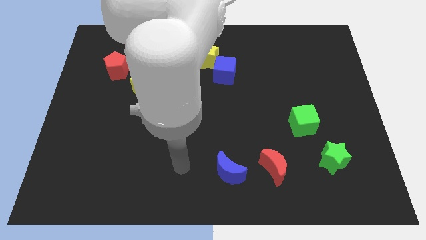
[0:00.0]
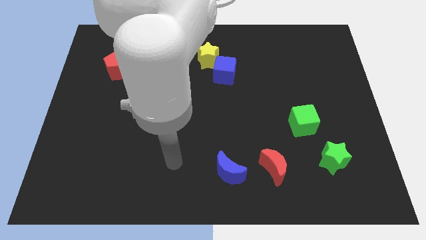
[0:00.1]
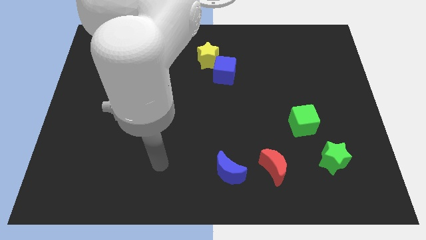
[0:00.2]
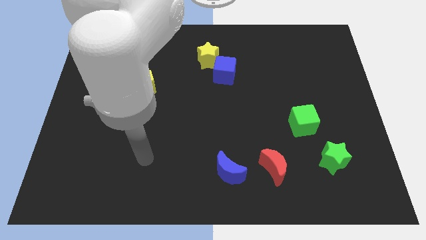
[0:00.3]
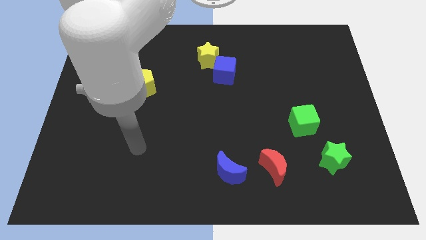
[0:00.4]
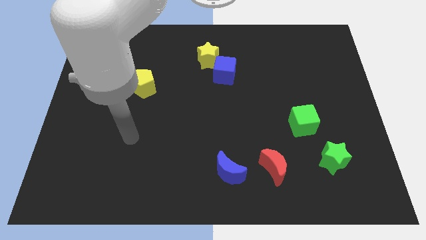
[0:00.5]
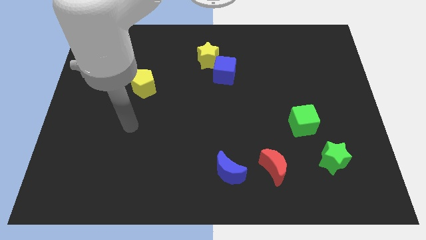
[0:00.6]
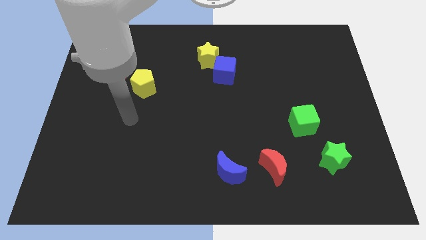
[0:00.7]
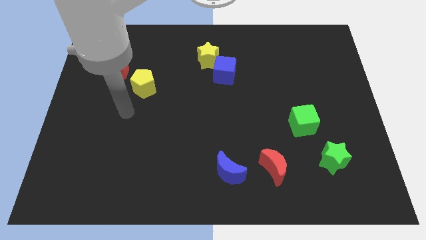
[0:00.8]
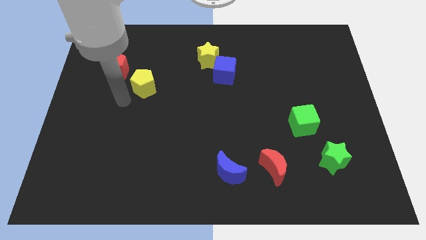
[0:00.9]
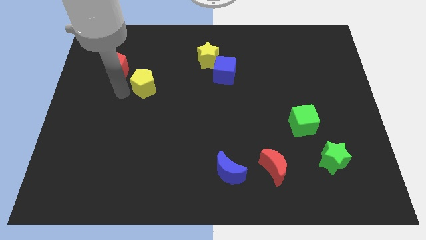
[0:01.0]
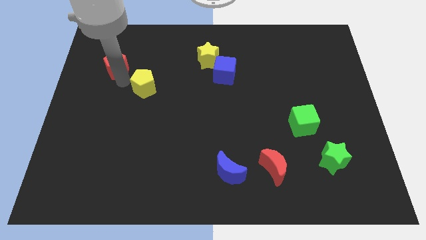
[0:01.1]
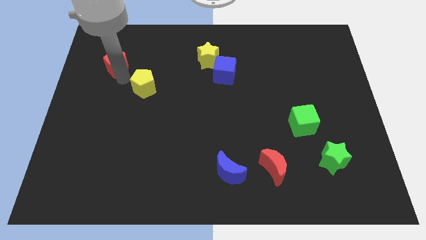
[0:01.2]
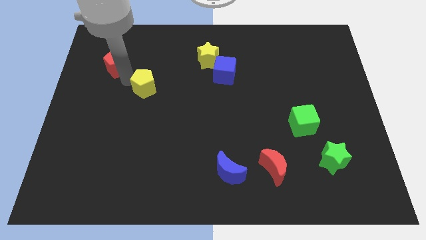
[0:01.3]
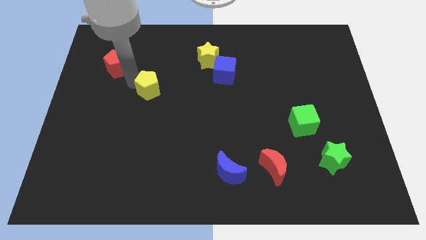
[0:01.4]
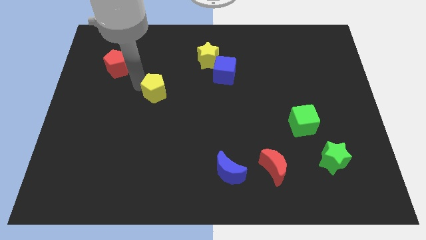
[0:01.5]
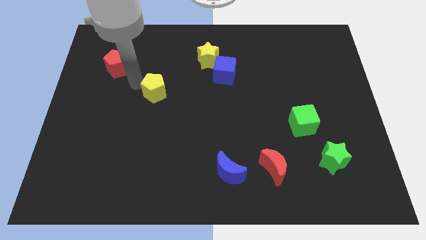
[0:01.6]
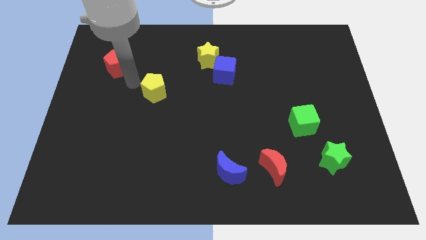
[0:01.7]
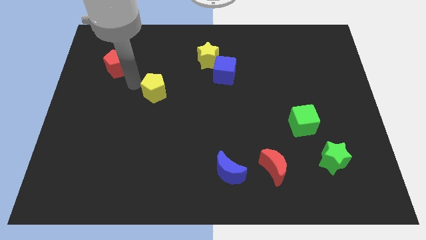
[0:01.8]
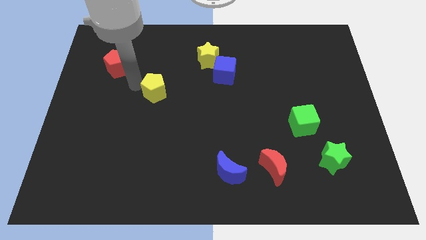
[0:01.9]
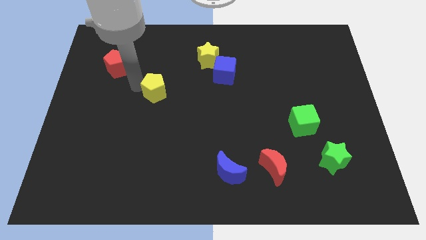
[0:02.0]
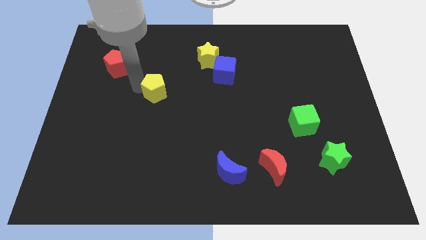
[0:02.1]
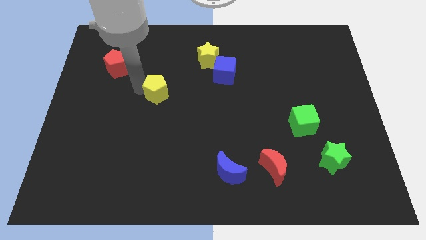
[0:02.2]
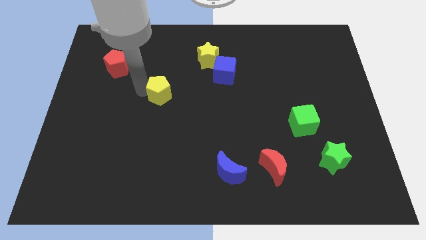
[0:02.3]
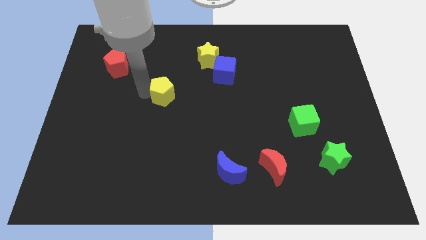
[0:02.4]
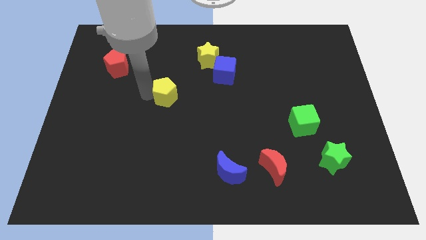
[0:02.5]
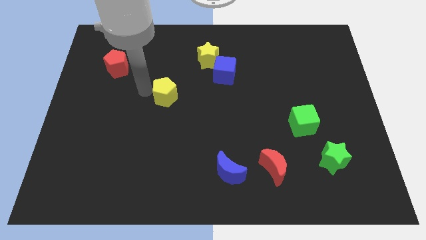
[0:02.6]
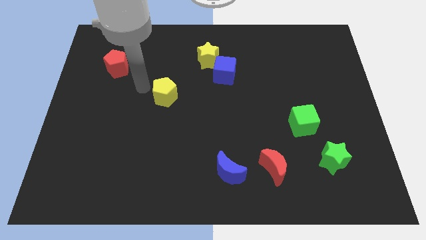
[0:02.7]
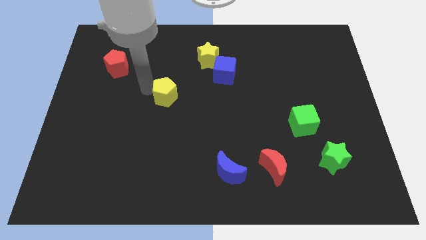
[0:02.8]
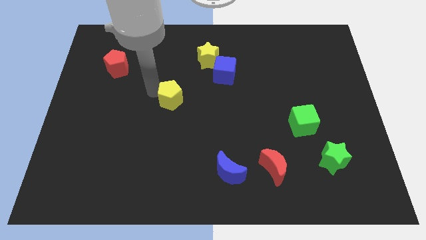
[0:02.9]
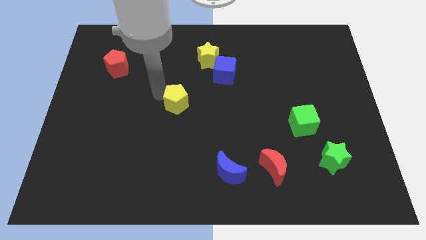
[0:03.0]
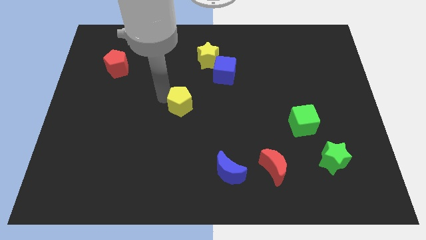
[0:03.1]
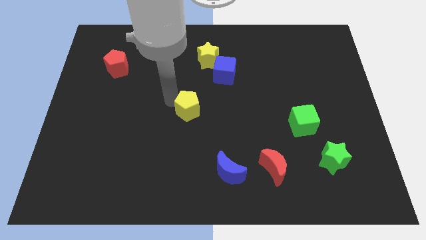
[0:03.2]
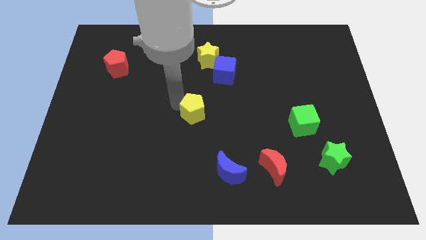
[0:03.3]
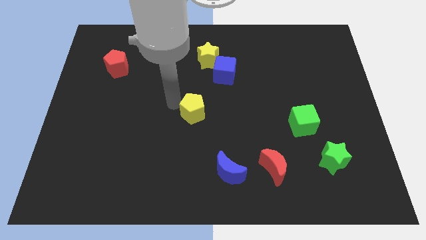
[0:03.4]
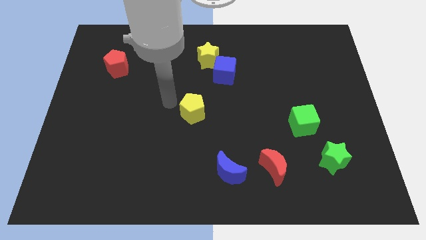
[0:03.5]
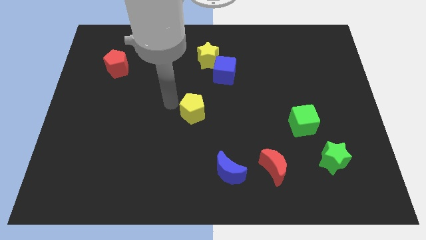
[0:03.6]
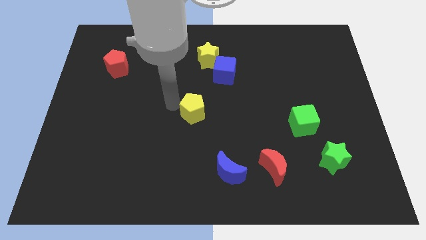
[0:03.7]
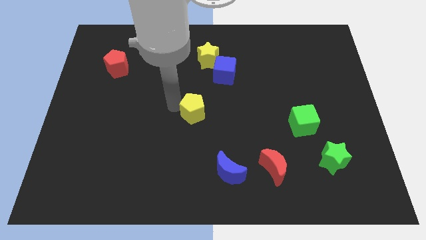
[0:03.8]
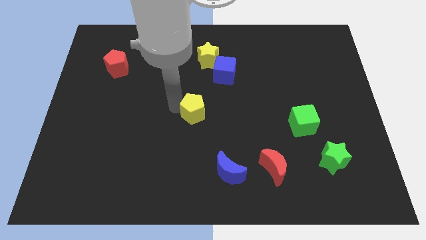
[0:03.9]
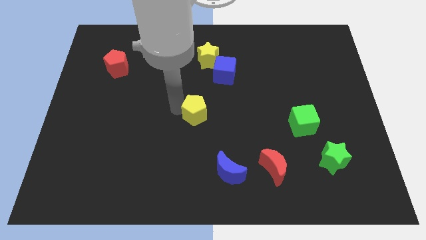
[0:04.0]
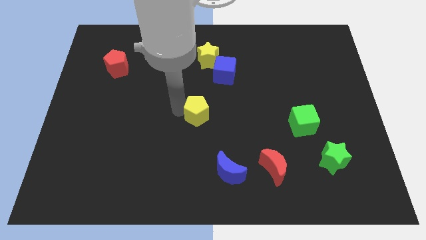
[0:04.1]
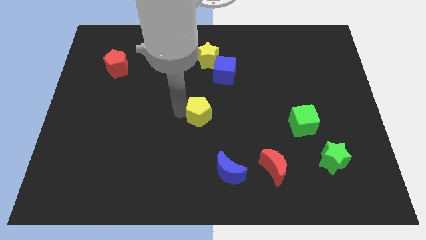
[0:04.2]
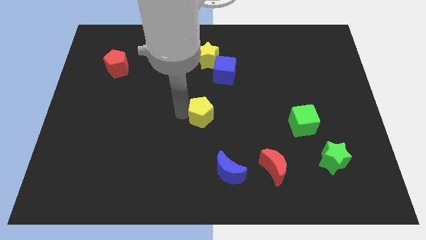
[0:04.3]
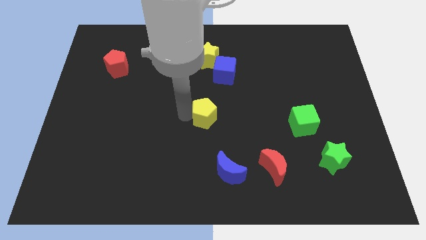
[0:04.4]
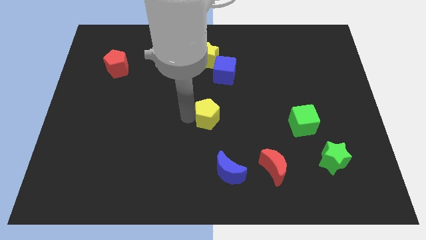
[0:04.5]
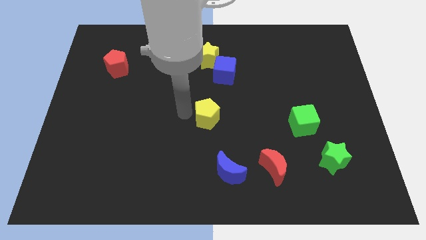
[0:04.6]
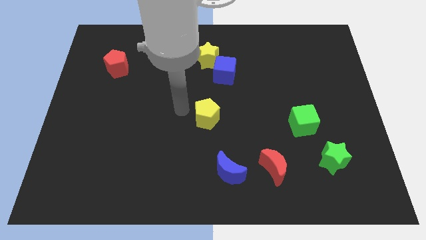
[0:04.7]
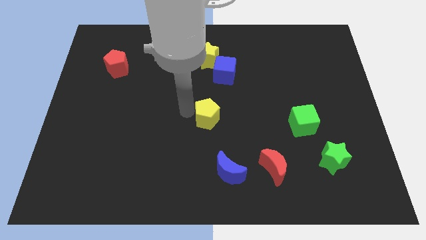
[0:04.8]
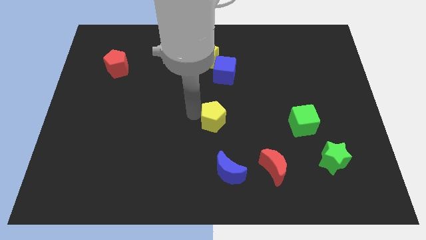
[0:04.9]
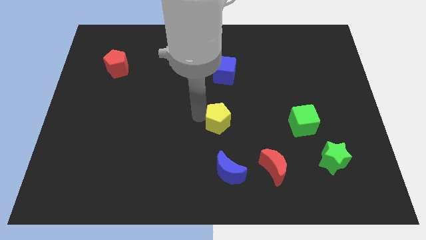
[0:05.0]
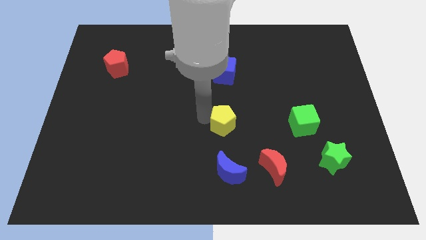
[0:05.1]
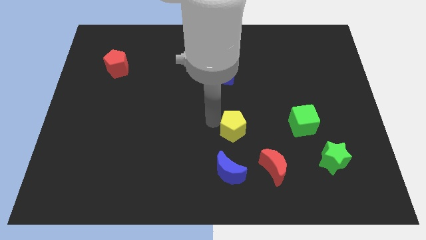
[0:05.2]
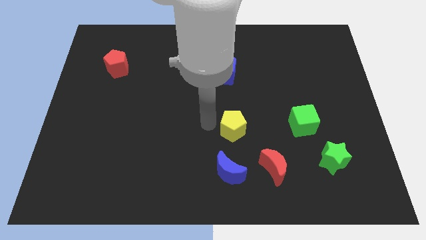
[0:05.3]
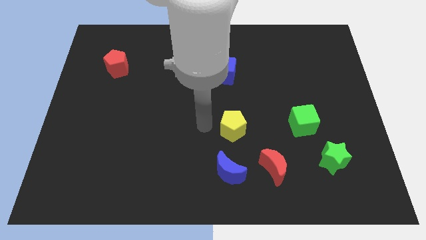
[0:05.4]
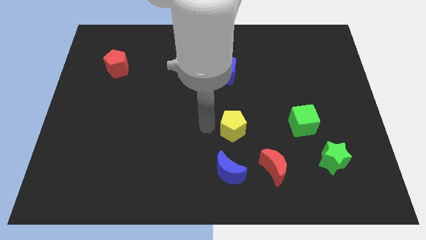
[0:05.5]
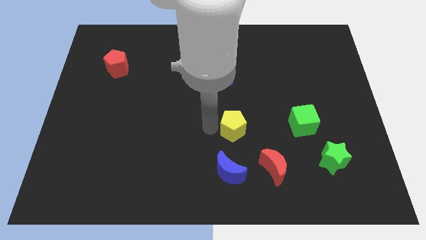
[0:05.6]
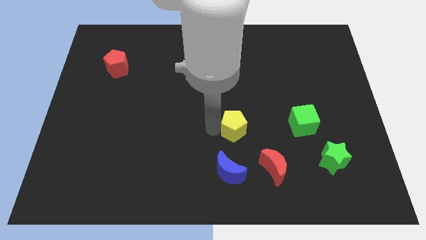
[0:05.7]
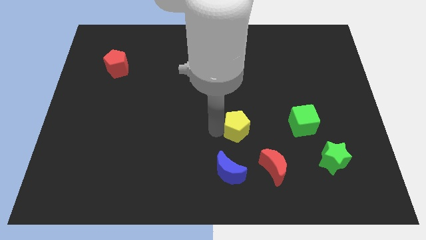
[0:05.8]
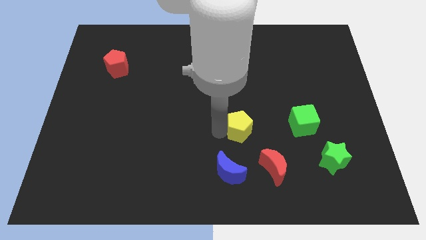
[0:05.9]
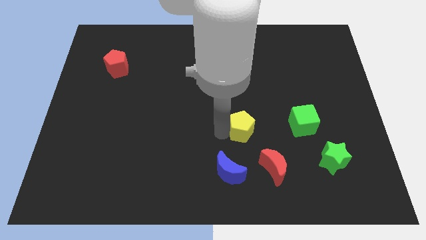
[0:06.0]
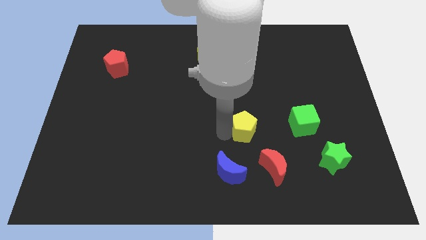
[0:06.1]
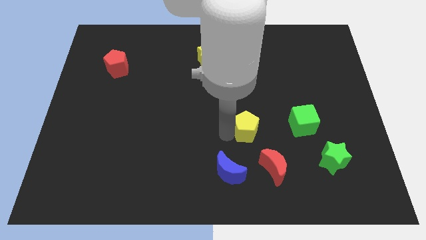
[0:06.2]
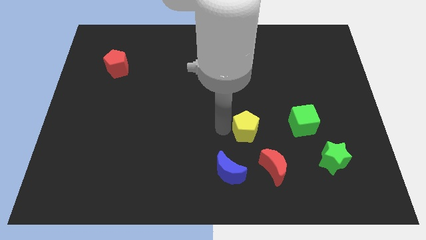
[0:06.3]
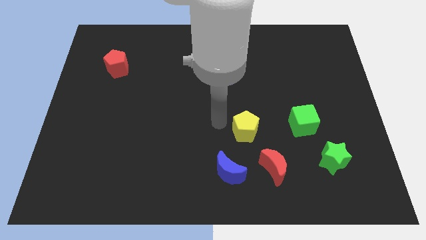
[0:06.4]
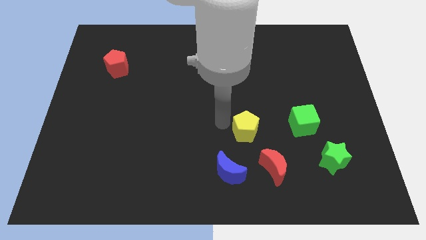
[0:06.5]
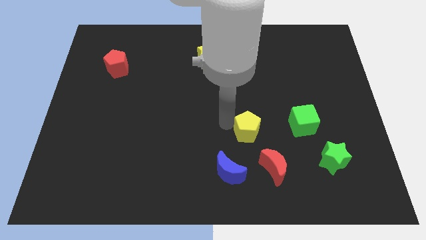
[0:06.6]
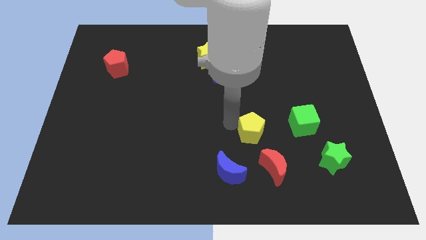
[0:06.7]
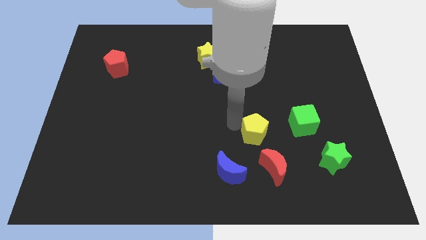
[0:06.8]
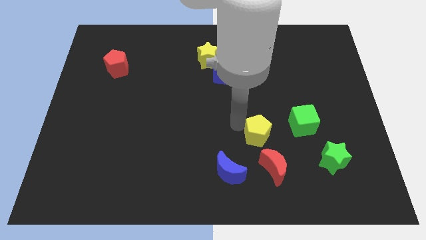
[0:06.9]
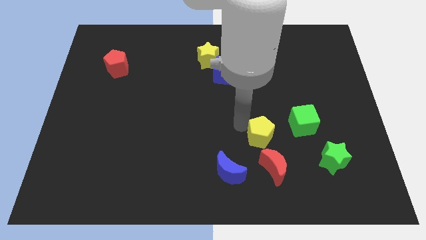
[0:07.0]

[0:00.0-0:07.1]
put the yellow pentagon diagonally down and to the left of the green cube
